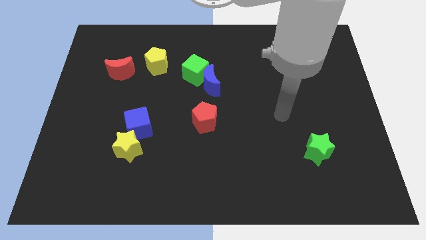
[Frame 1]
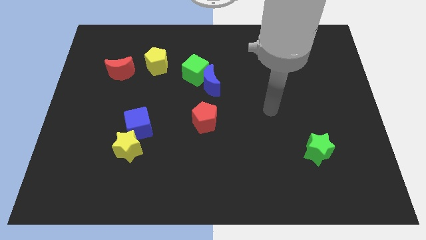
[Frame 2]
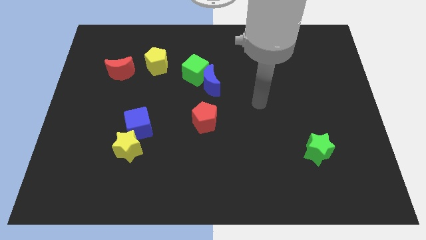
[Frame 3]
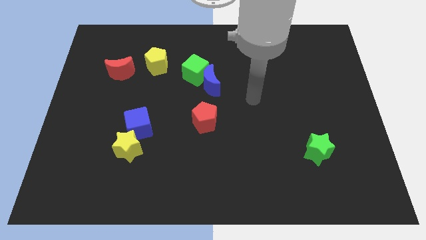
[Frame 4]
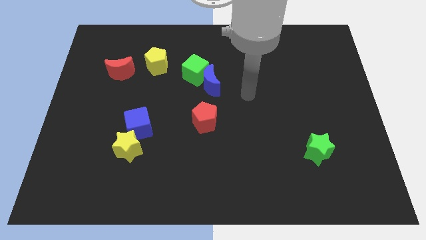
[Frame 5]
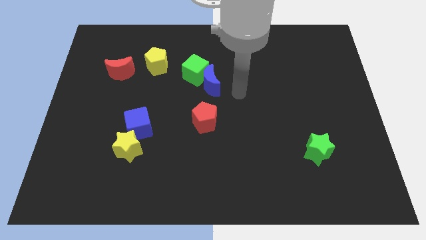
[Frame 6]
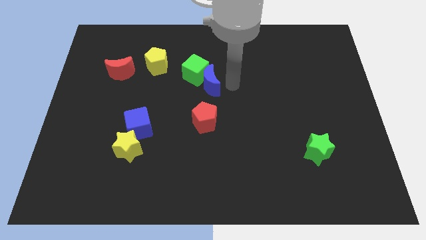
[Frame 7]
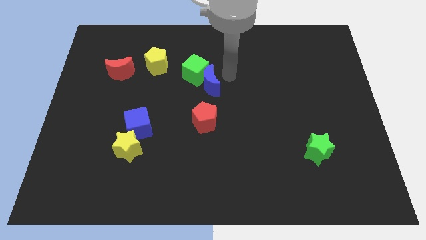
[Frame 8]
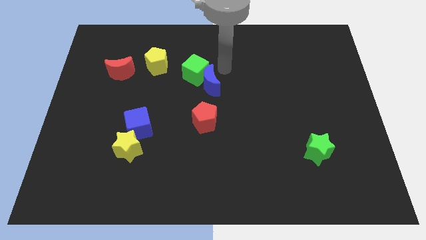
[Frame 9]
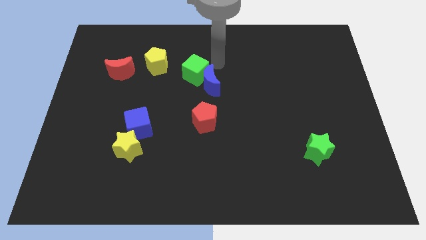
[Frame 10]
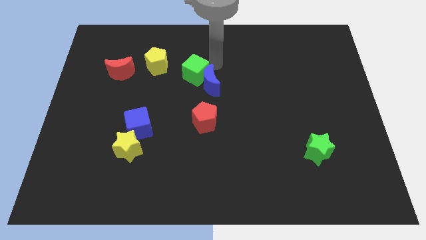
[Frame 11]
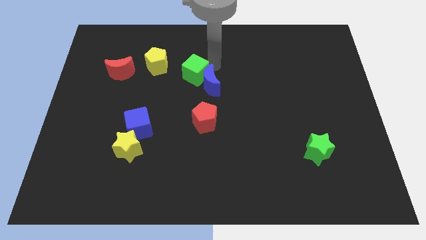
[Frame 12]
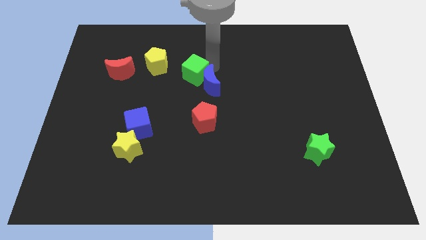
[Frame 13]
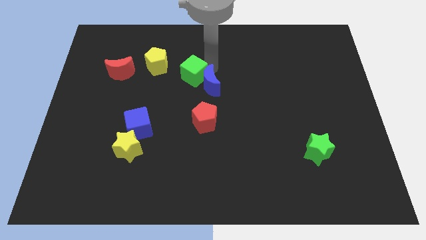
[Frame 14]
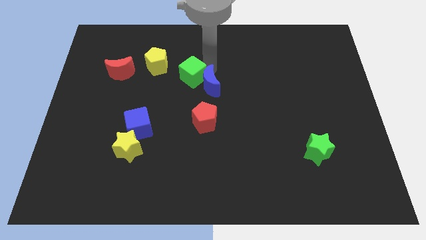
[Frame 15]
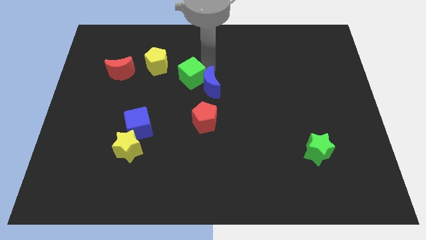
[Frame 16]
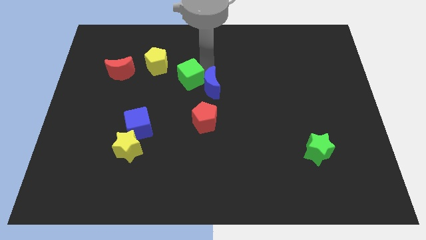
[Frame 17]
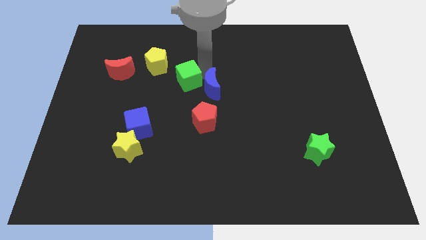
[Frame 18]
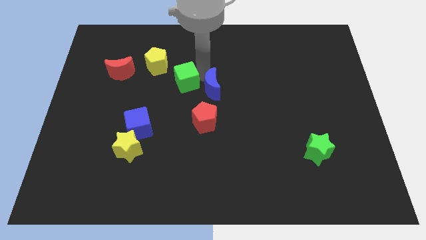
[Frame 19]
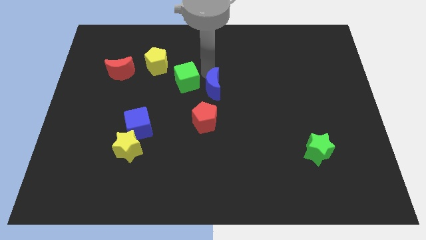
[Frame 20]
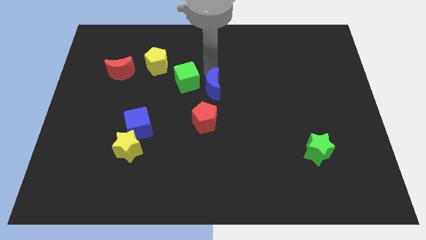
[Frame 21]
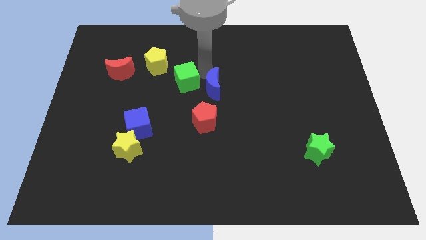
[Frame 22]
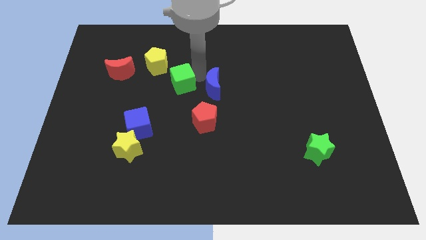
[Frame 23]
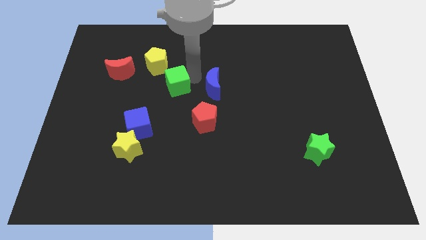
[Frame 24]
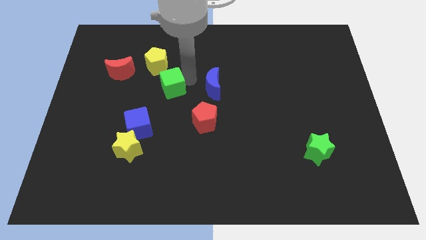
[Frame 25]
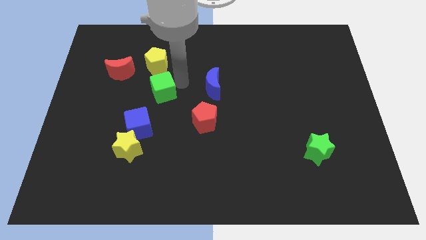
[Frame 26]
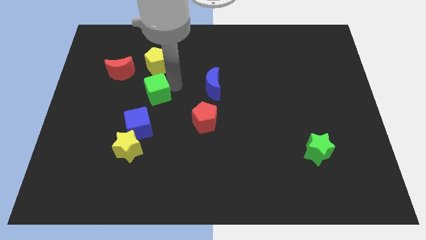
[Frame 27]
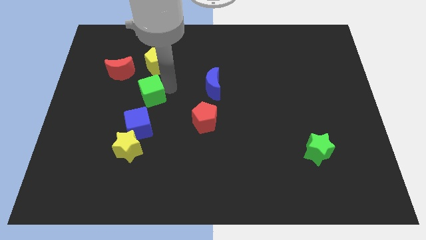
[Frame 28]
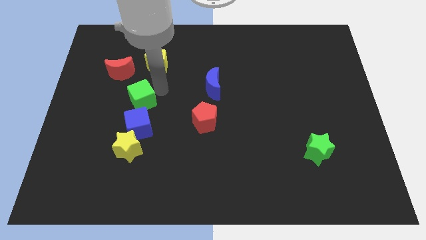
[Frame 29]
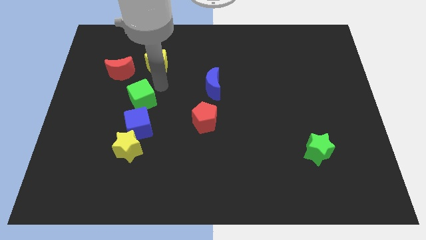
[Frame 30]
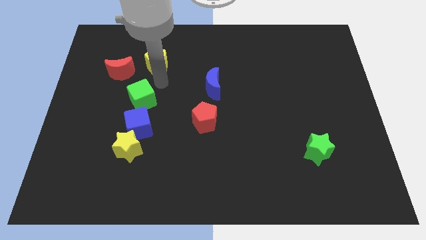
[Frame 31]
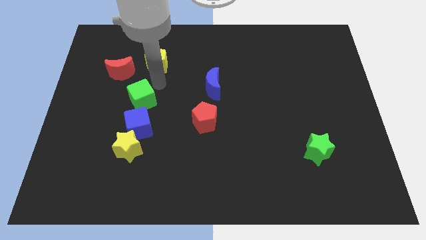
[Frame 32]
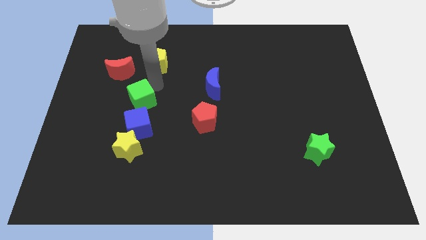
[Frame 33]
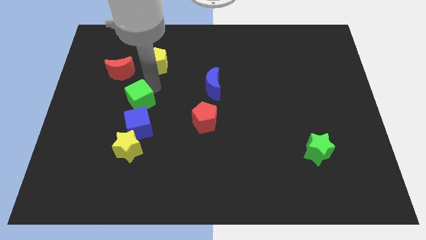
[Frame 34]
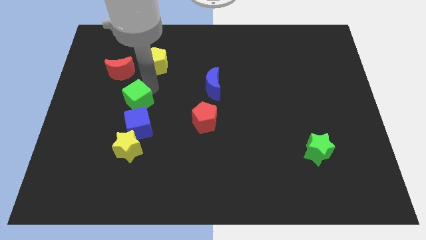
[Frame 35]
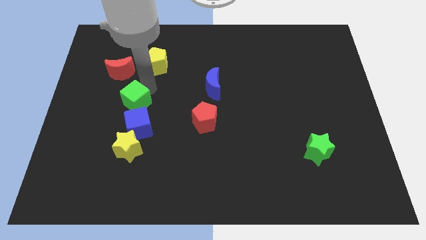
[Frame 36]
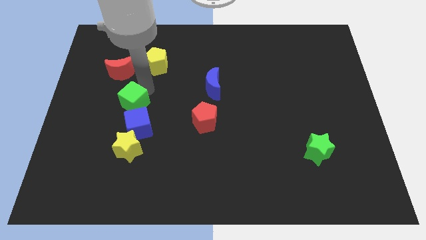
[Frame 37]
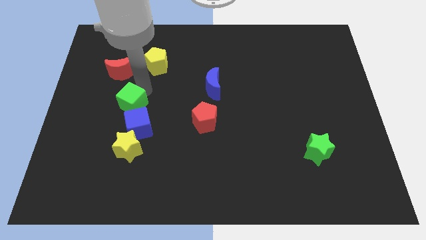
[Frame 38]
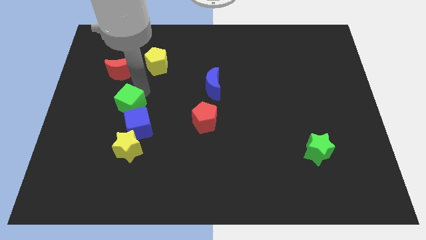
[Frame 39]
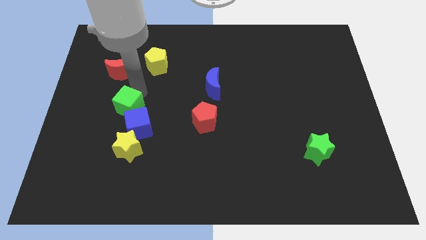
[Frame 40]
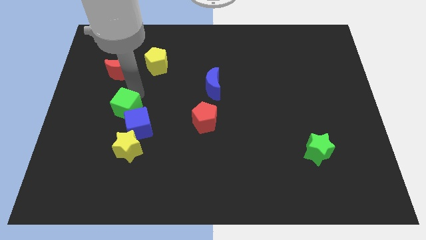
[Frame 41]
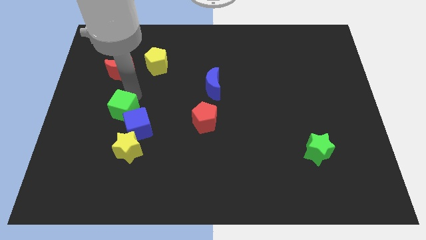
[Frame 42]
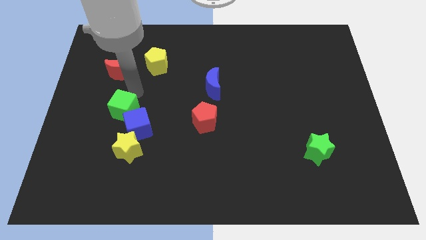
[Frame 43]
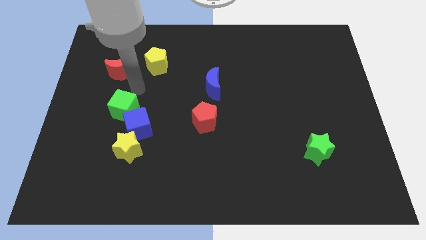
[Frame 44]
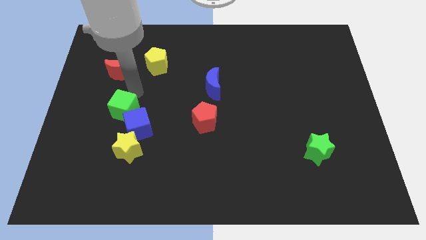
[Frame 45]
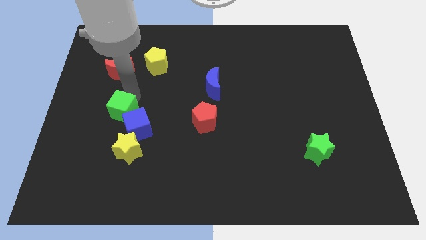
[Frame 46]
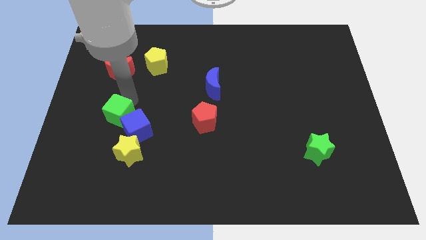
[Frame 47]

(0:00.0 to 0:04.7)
slide the green cube downwards and then left

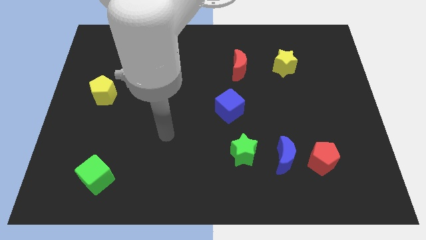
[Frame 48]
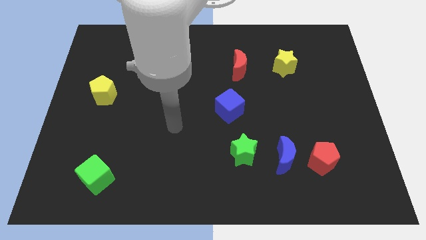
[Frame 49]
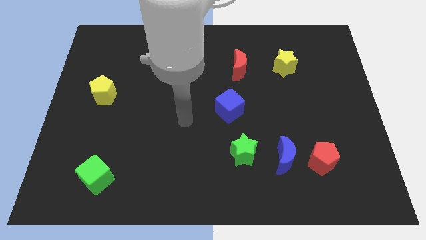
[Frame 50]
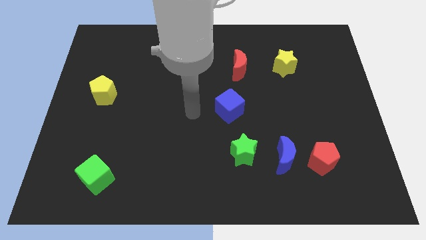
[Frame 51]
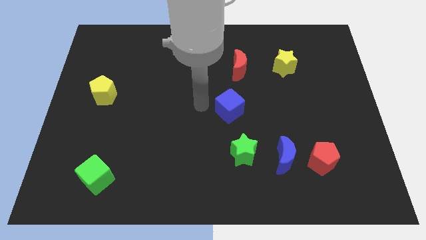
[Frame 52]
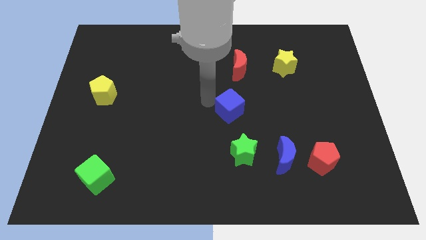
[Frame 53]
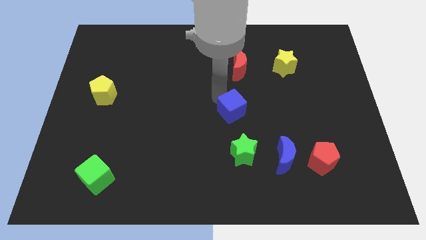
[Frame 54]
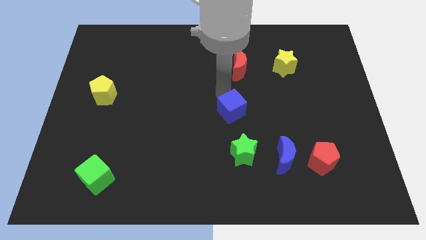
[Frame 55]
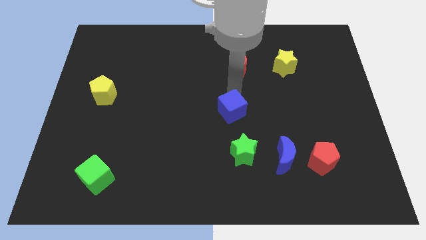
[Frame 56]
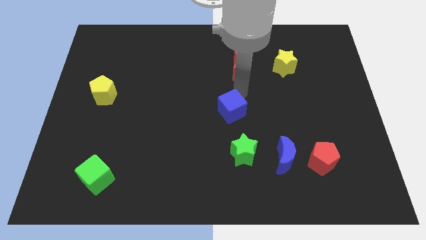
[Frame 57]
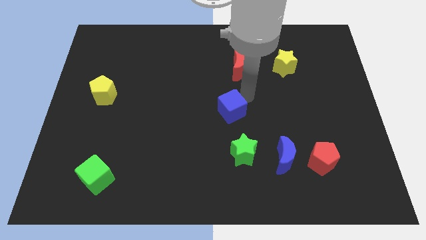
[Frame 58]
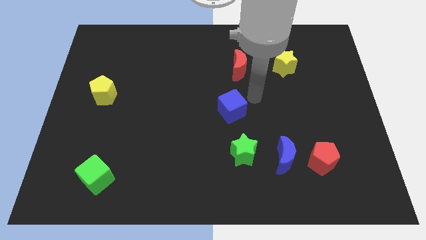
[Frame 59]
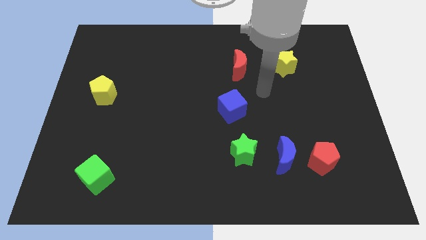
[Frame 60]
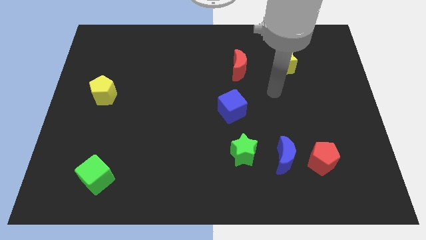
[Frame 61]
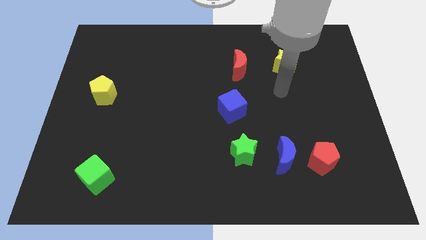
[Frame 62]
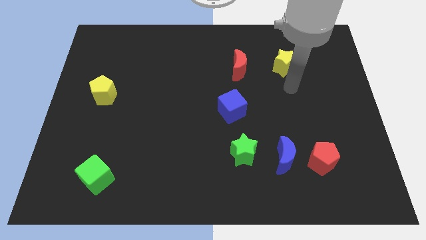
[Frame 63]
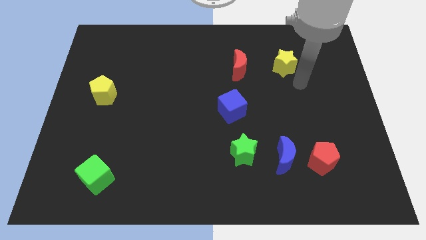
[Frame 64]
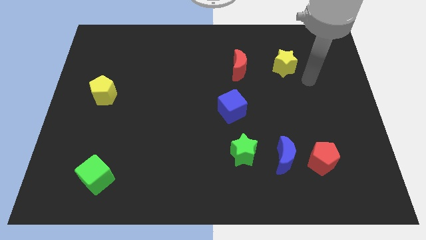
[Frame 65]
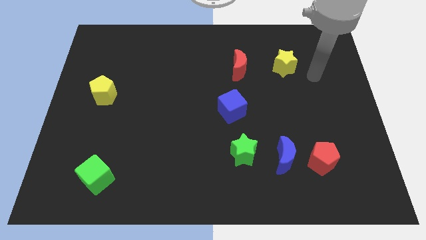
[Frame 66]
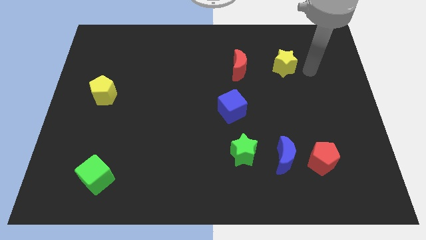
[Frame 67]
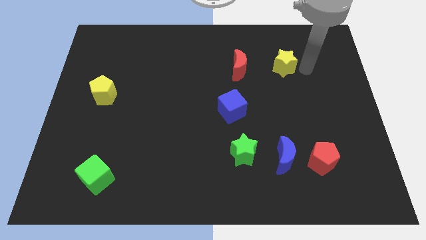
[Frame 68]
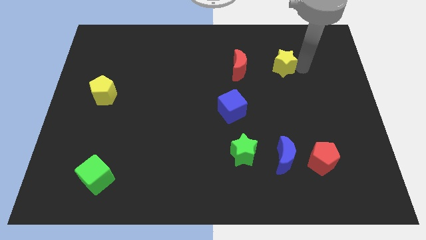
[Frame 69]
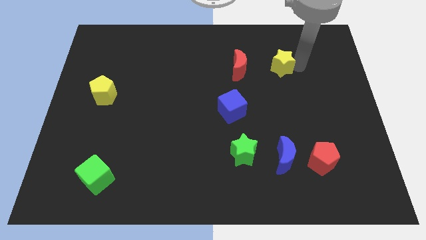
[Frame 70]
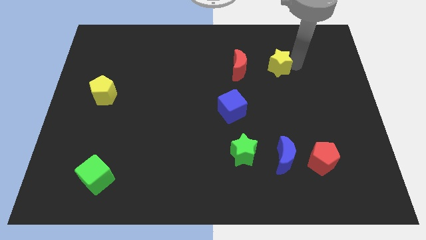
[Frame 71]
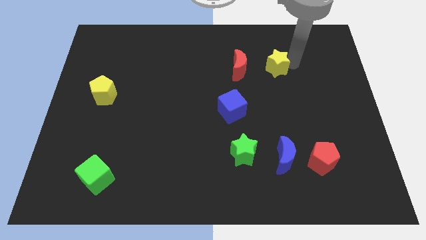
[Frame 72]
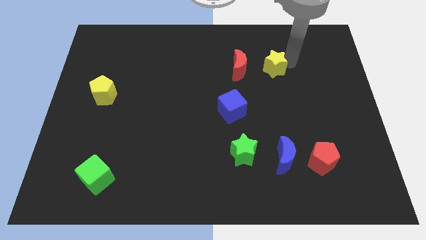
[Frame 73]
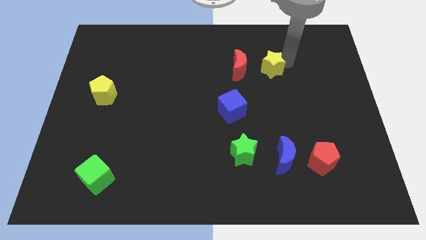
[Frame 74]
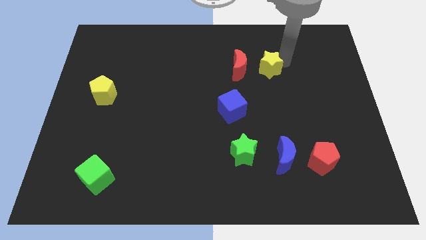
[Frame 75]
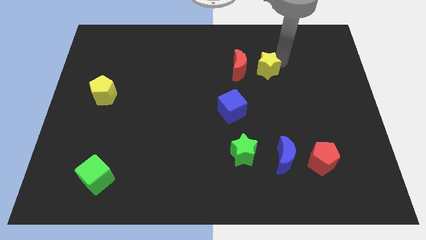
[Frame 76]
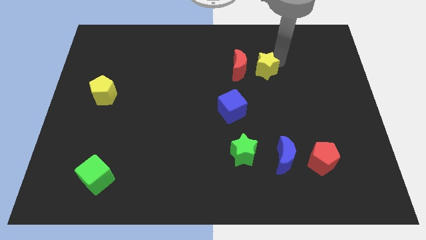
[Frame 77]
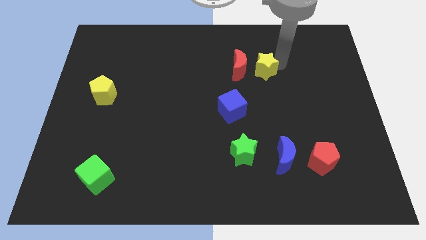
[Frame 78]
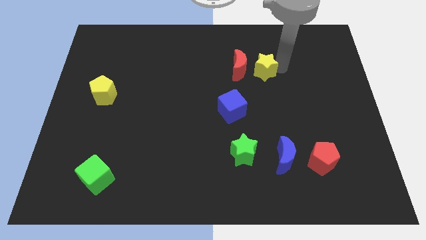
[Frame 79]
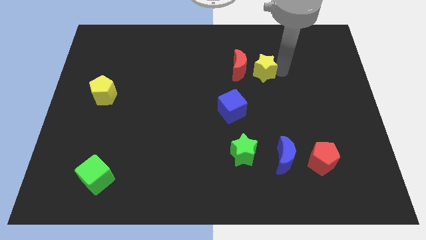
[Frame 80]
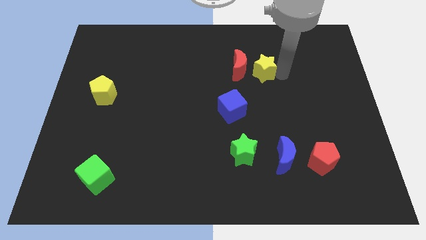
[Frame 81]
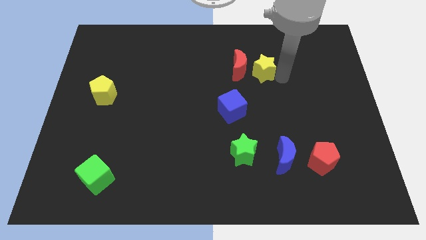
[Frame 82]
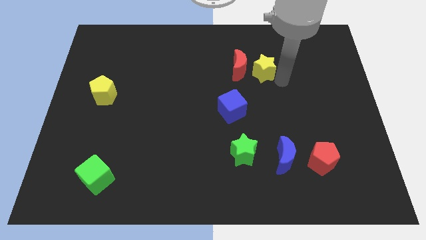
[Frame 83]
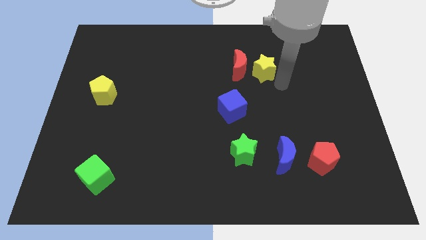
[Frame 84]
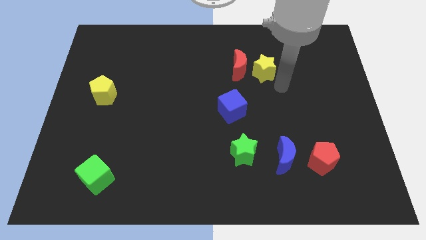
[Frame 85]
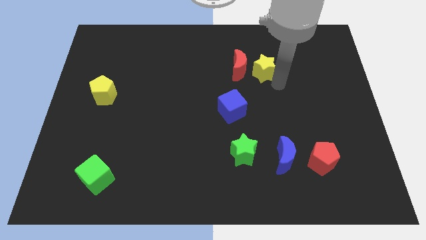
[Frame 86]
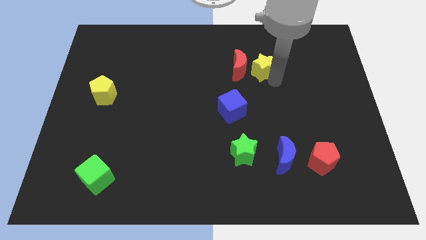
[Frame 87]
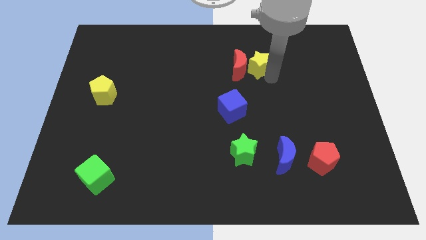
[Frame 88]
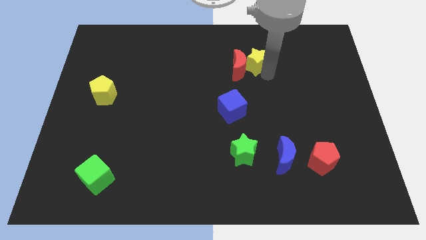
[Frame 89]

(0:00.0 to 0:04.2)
slide the yellow star to the left a little
